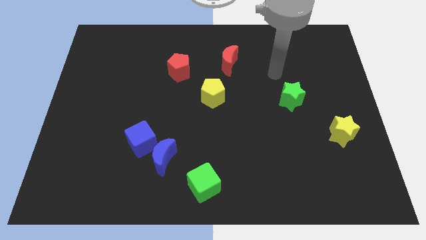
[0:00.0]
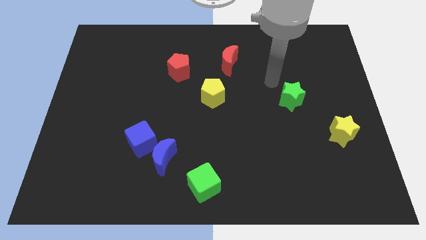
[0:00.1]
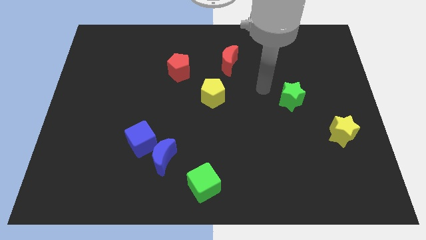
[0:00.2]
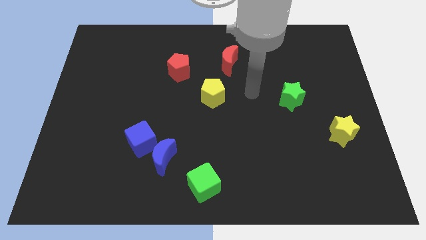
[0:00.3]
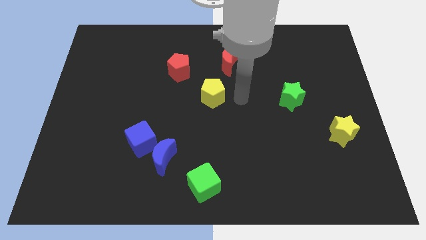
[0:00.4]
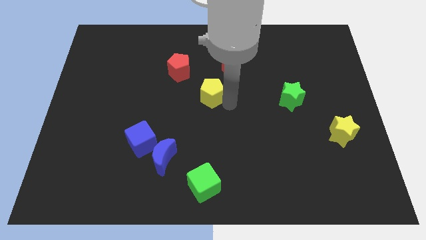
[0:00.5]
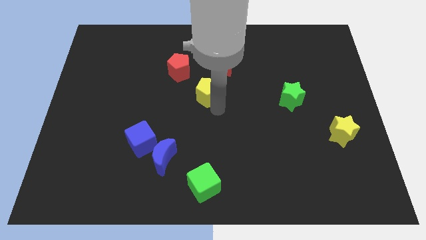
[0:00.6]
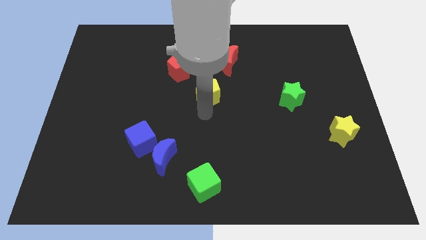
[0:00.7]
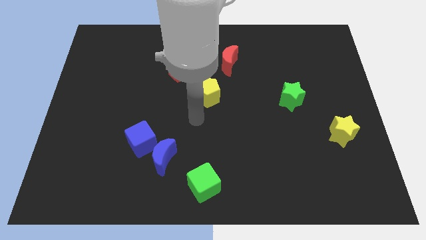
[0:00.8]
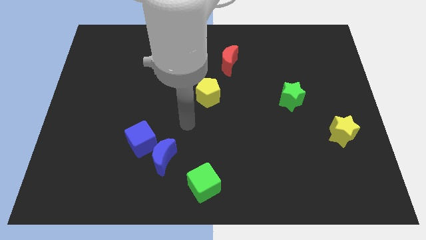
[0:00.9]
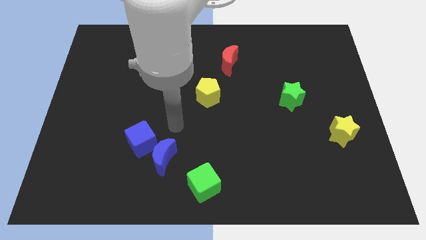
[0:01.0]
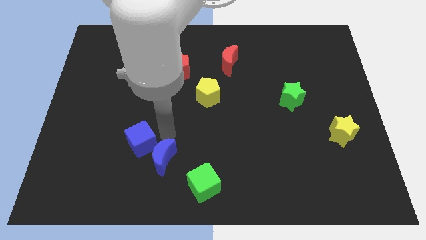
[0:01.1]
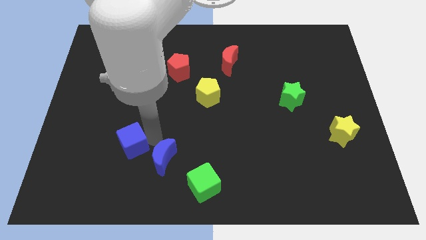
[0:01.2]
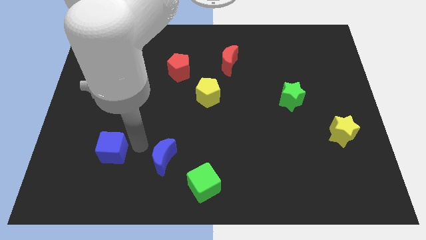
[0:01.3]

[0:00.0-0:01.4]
separate the blue moon from the blue cube

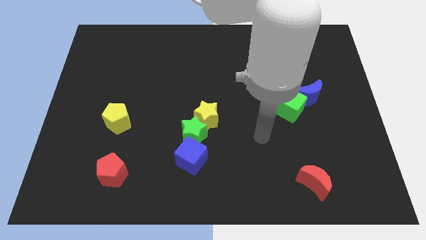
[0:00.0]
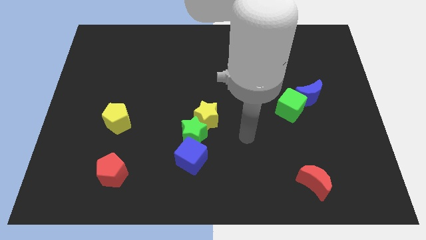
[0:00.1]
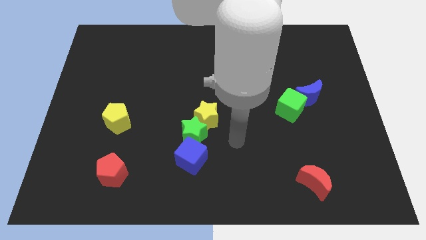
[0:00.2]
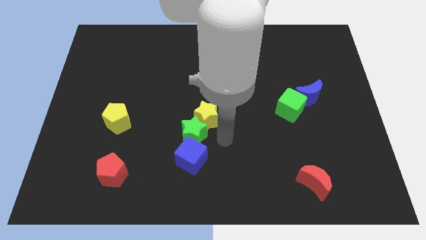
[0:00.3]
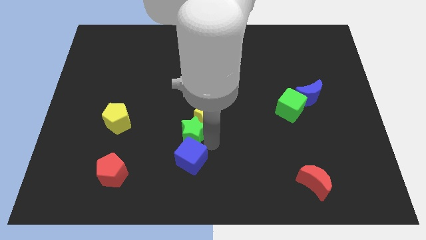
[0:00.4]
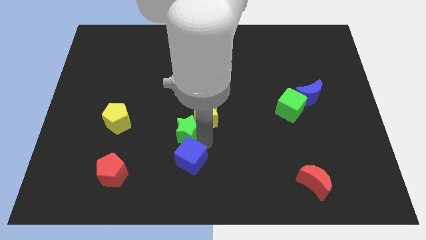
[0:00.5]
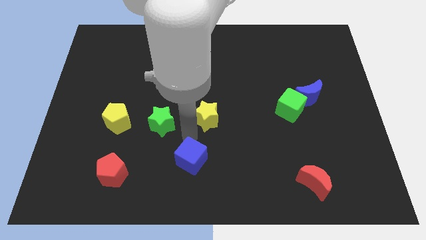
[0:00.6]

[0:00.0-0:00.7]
move the yellow star away from the green star

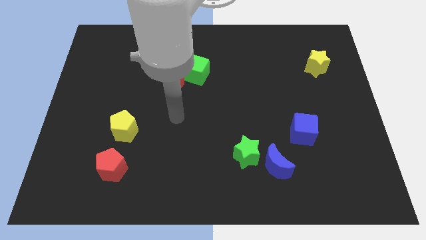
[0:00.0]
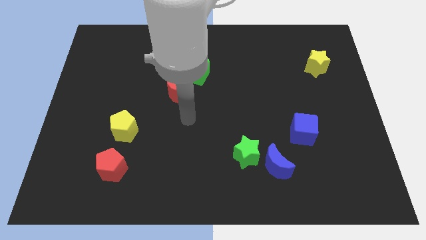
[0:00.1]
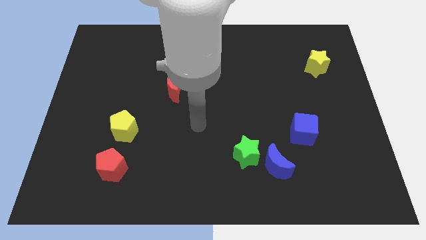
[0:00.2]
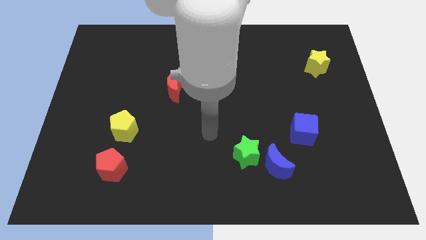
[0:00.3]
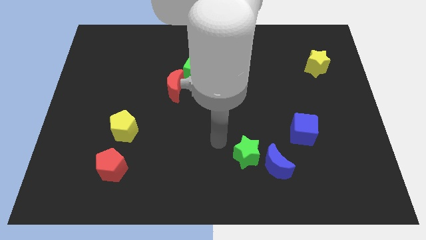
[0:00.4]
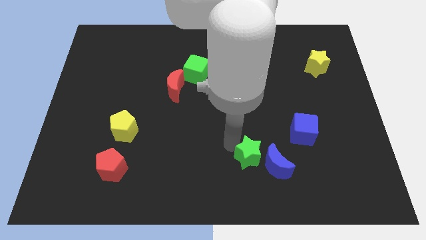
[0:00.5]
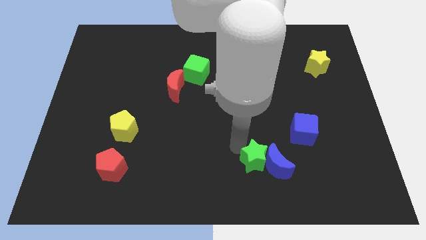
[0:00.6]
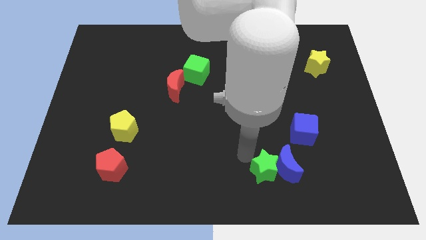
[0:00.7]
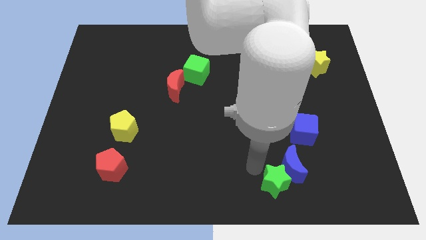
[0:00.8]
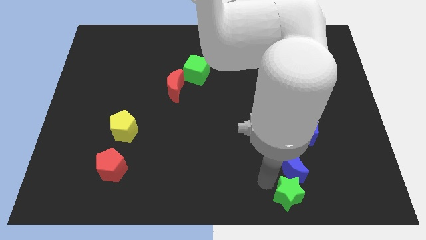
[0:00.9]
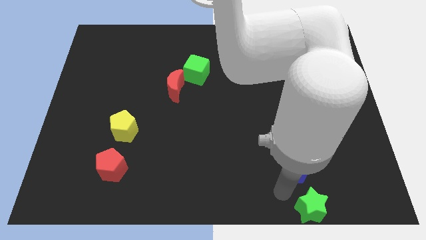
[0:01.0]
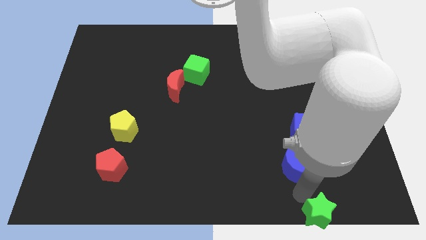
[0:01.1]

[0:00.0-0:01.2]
move the blue moon away from the green star

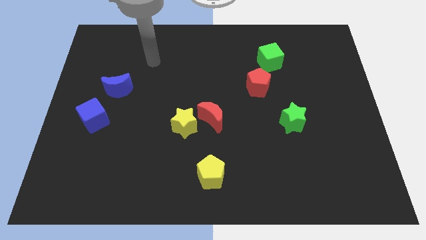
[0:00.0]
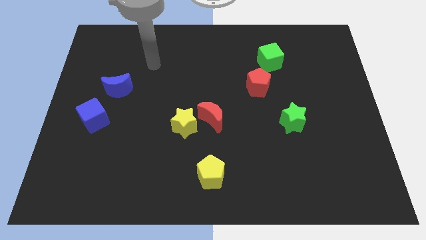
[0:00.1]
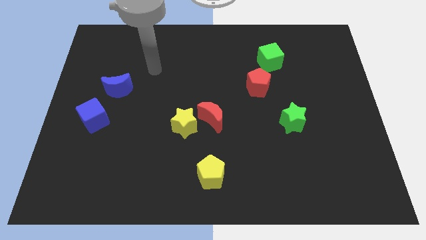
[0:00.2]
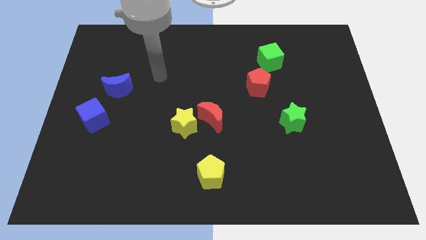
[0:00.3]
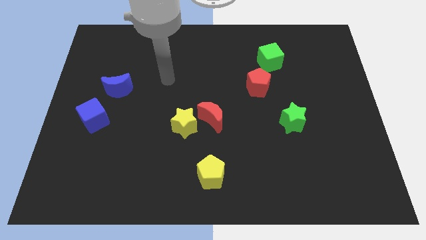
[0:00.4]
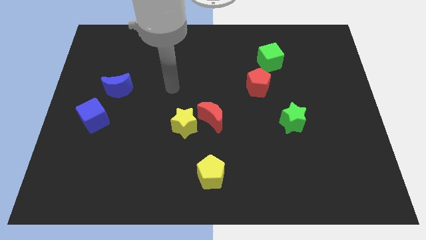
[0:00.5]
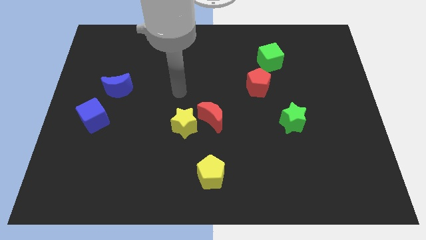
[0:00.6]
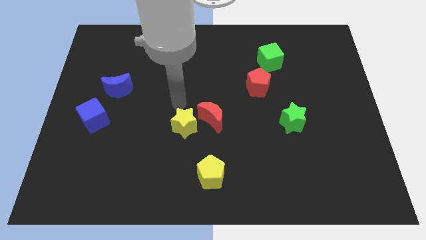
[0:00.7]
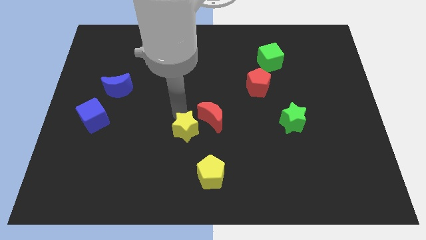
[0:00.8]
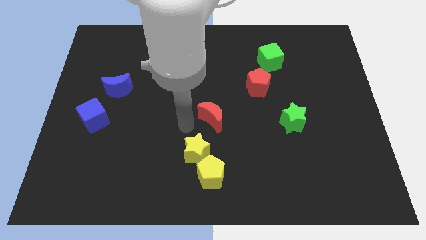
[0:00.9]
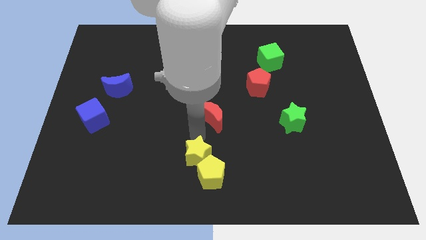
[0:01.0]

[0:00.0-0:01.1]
move the red moon away from the yellow star

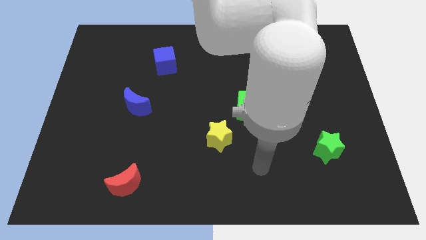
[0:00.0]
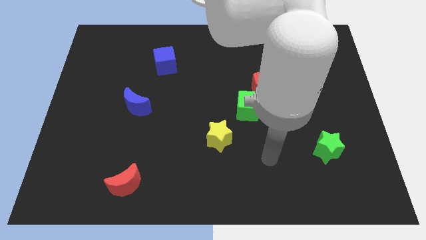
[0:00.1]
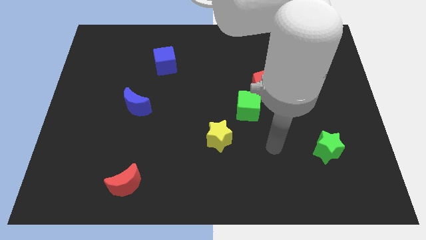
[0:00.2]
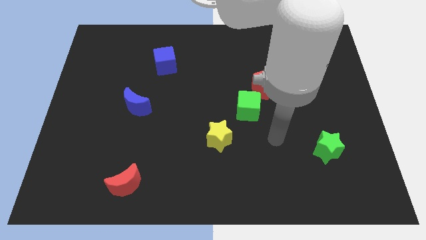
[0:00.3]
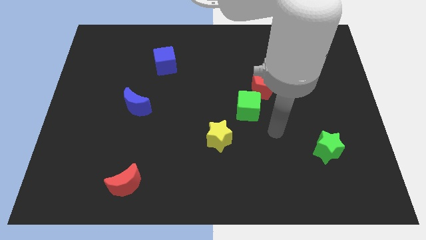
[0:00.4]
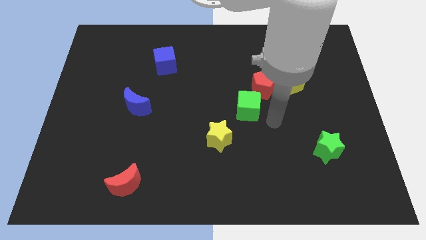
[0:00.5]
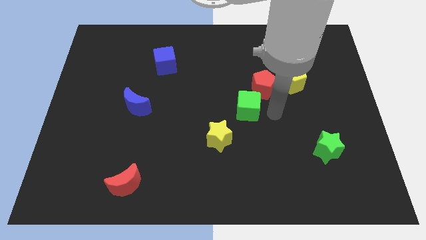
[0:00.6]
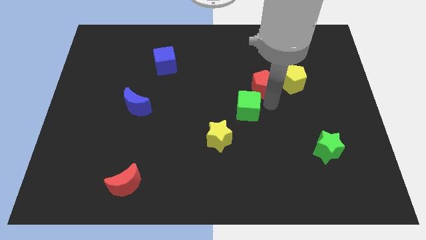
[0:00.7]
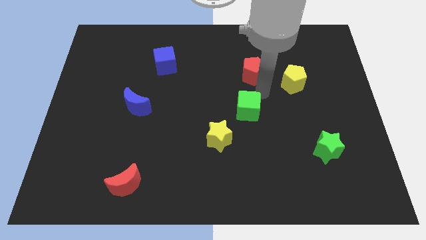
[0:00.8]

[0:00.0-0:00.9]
separate the green cube from the red pentagon

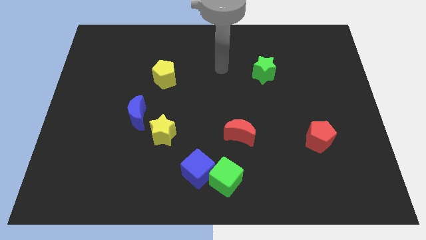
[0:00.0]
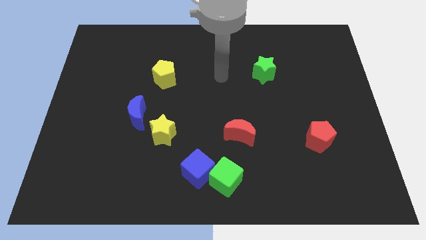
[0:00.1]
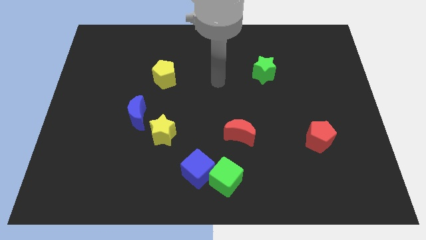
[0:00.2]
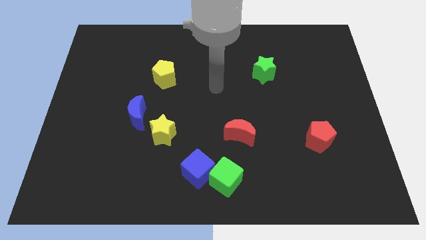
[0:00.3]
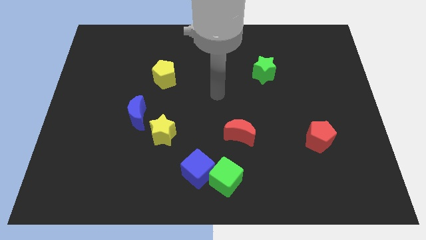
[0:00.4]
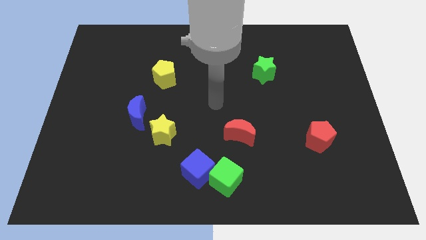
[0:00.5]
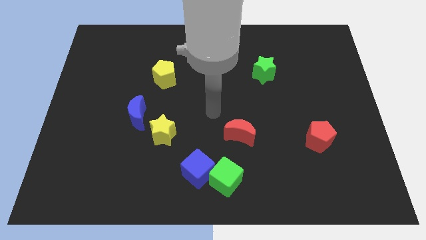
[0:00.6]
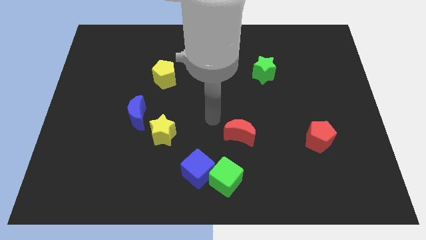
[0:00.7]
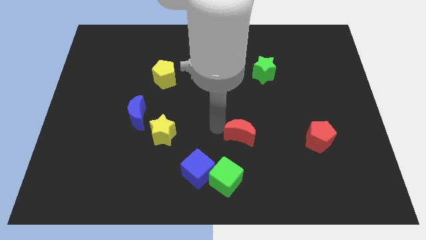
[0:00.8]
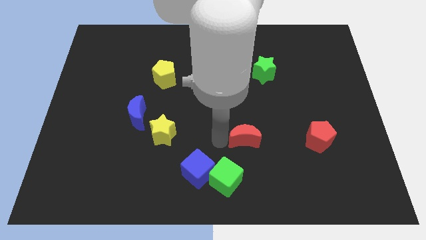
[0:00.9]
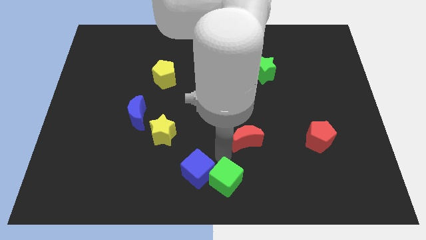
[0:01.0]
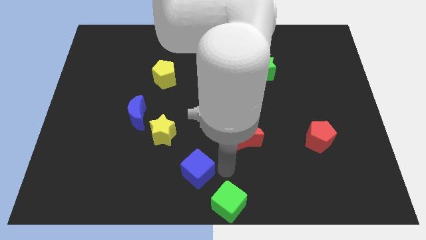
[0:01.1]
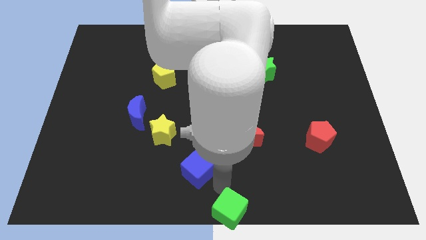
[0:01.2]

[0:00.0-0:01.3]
move the blue cube away from the green cube

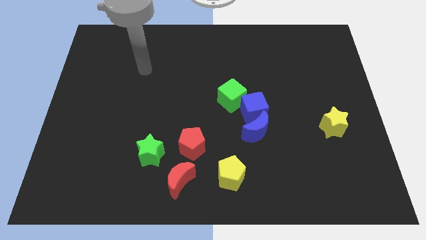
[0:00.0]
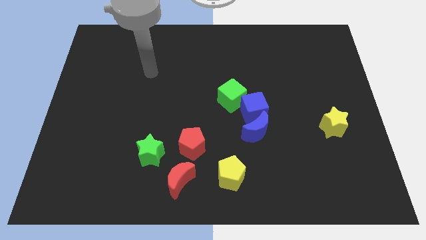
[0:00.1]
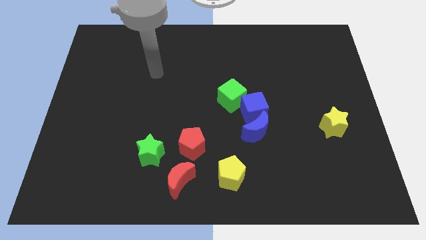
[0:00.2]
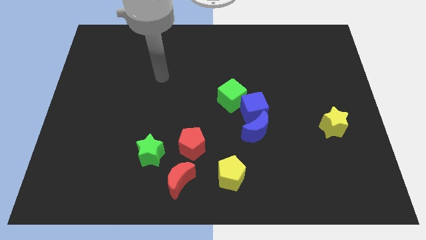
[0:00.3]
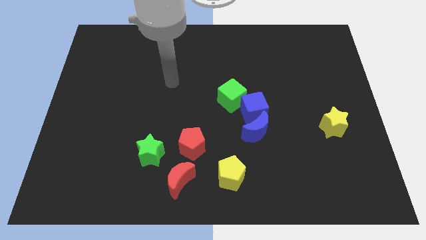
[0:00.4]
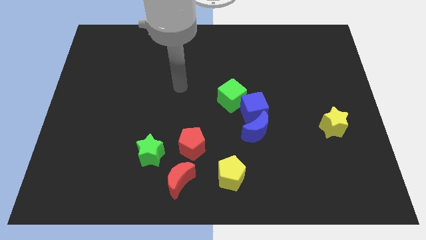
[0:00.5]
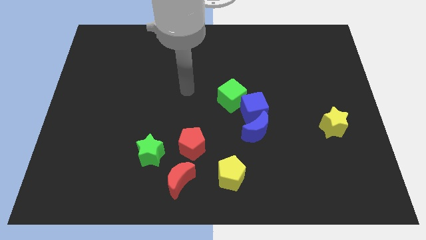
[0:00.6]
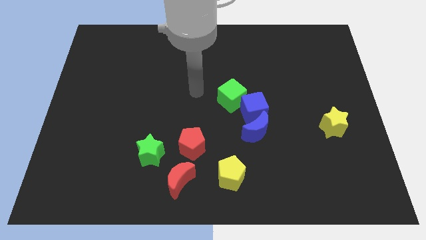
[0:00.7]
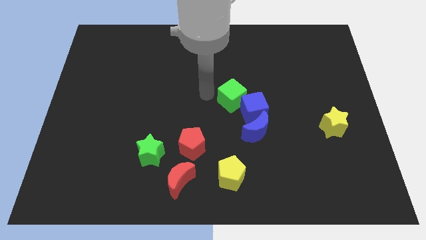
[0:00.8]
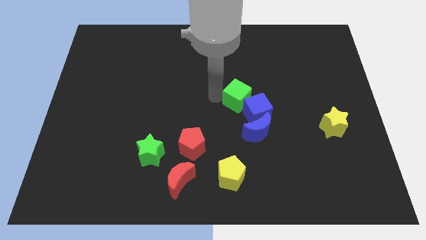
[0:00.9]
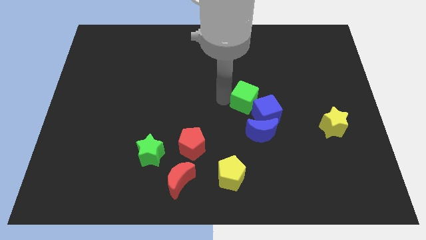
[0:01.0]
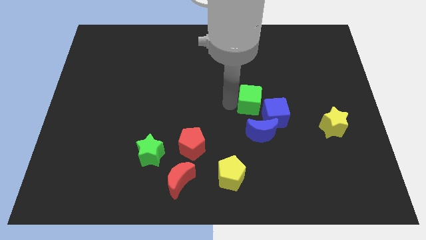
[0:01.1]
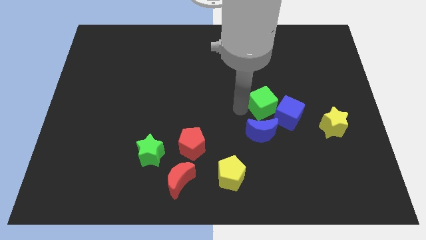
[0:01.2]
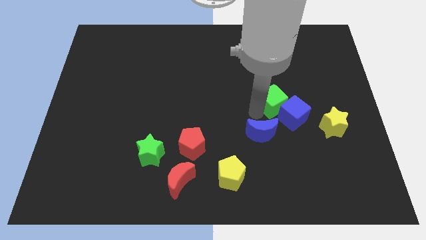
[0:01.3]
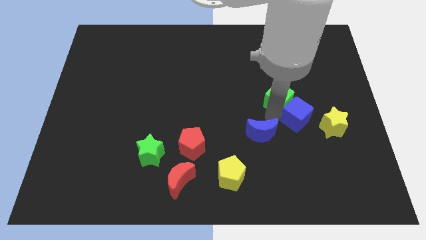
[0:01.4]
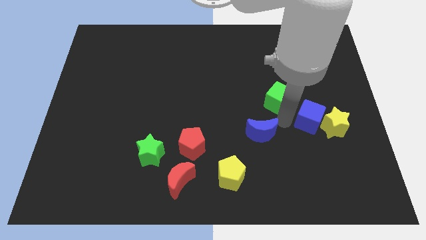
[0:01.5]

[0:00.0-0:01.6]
pull the blue moon apart from the blue cube

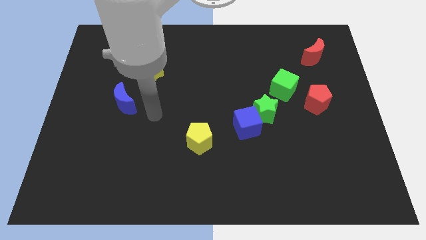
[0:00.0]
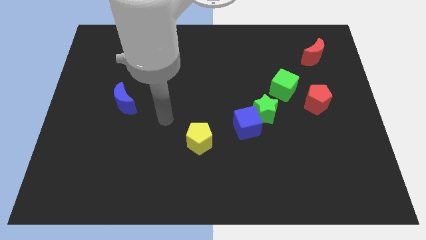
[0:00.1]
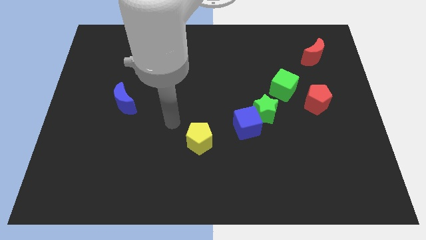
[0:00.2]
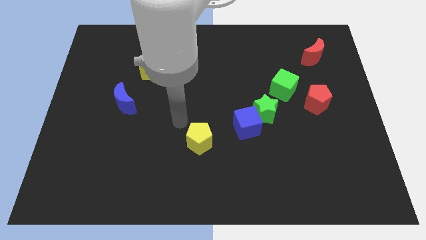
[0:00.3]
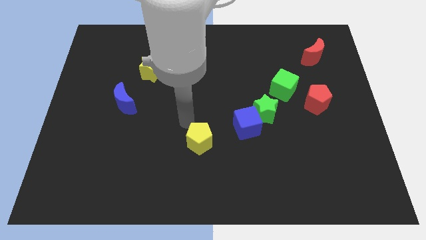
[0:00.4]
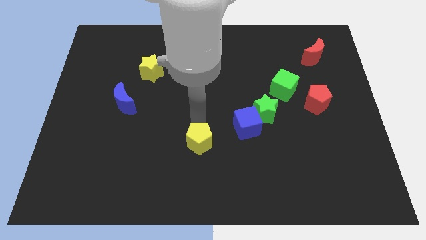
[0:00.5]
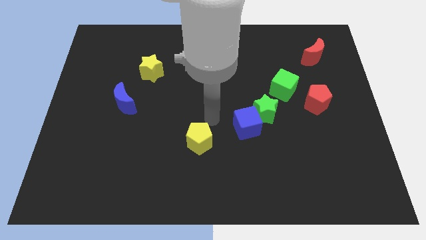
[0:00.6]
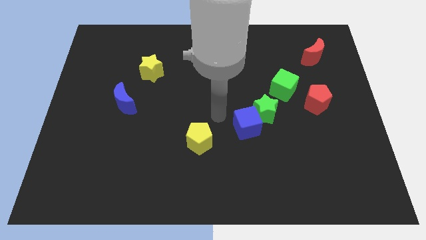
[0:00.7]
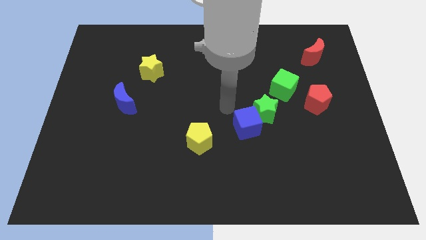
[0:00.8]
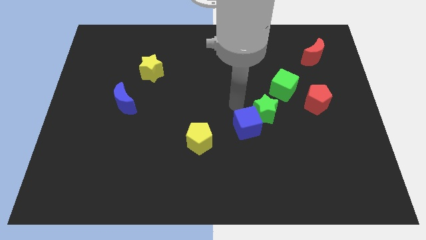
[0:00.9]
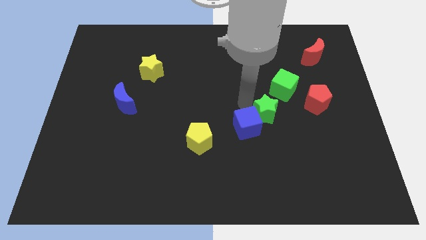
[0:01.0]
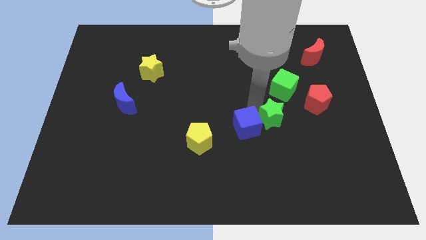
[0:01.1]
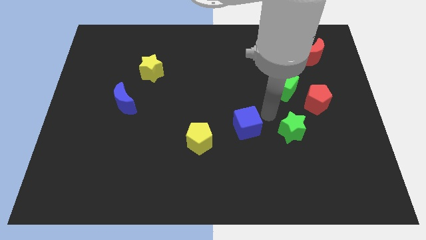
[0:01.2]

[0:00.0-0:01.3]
separate the blue cube from the green star
